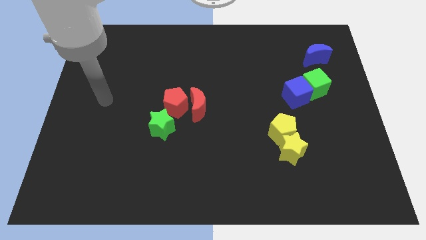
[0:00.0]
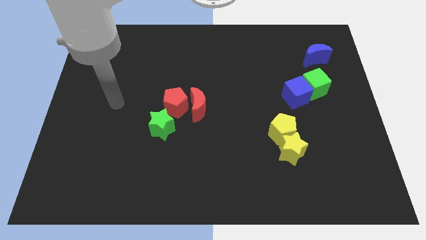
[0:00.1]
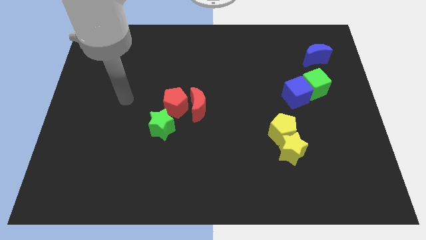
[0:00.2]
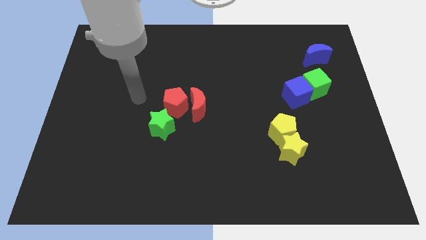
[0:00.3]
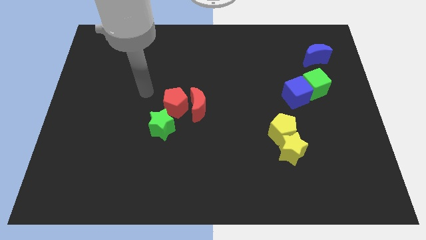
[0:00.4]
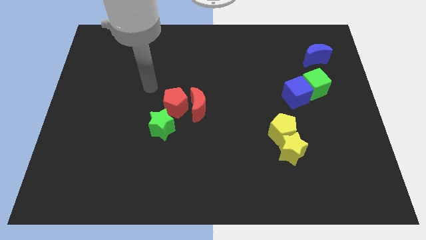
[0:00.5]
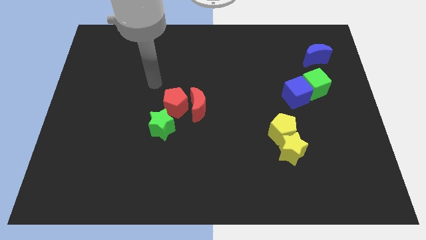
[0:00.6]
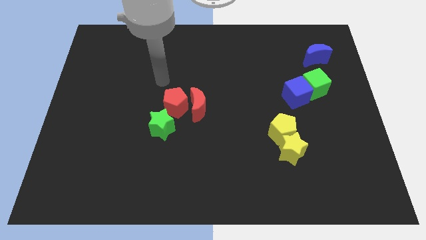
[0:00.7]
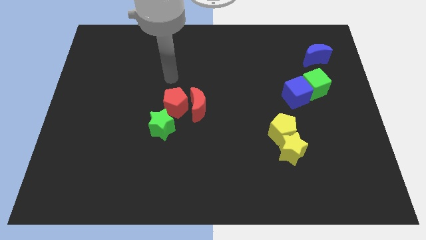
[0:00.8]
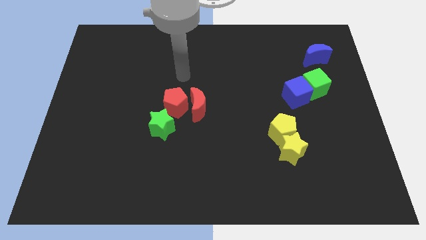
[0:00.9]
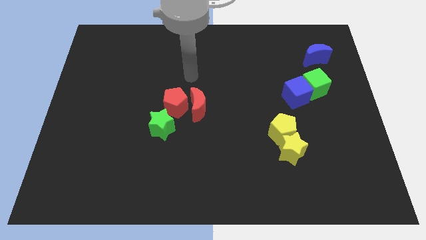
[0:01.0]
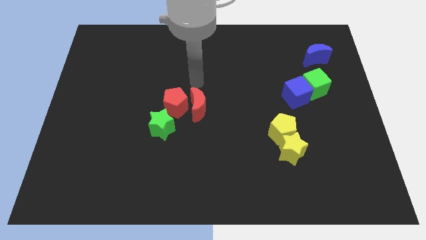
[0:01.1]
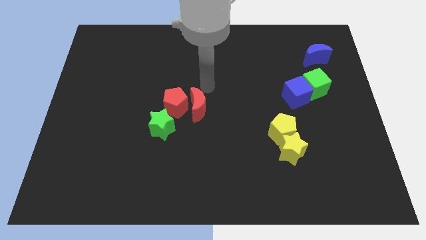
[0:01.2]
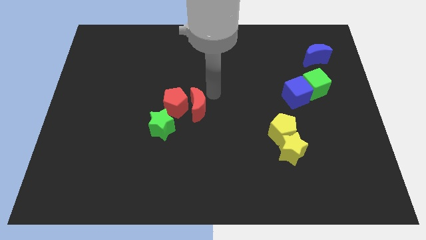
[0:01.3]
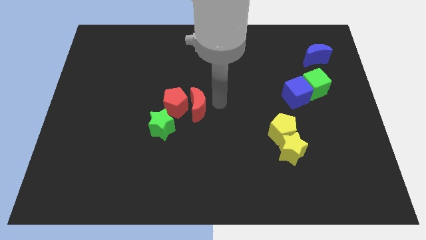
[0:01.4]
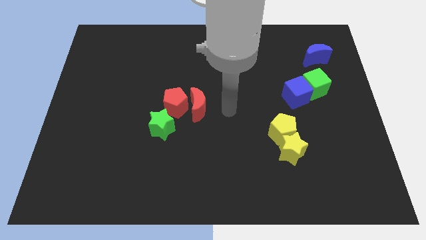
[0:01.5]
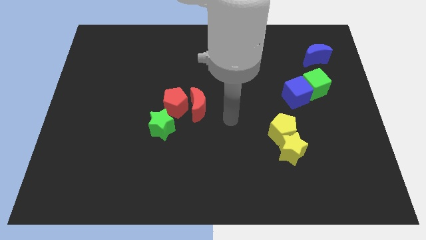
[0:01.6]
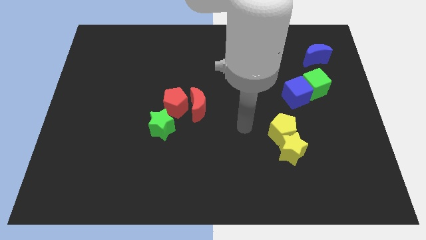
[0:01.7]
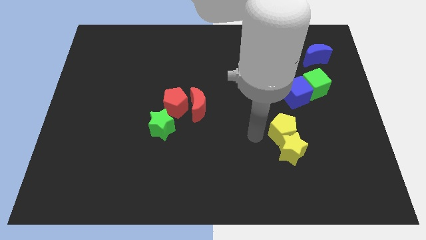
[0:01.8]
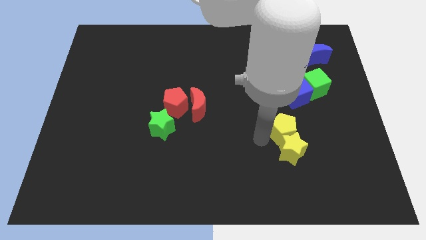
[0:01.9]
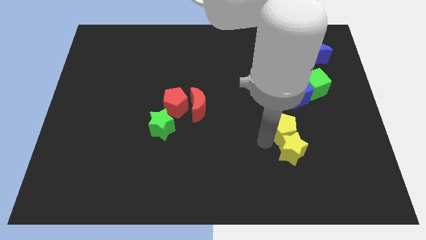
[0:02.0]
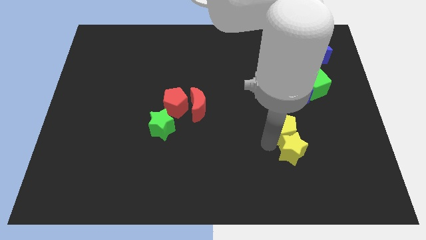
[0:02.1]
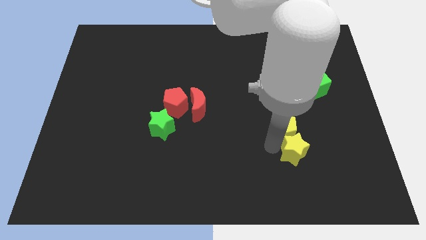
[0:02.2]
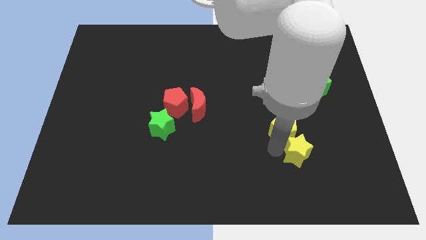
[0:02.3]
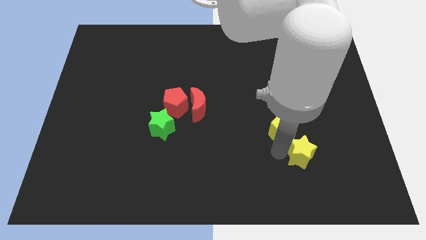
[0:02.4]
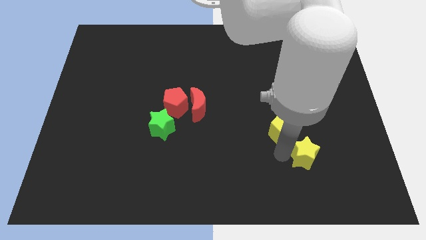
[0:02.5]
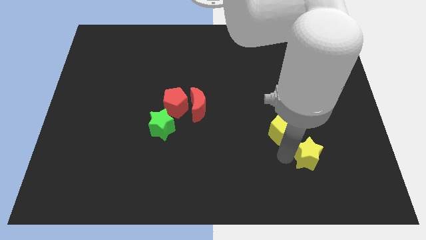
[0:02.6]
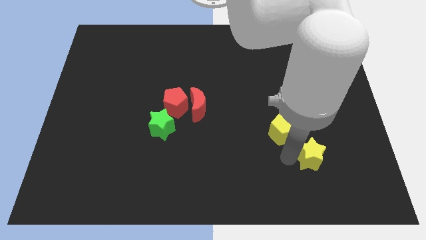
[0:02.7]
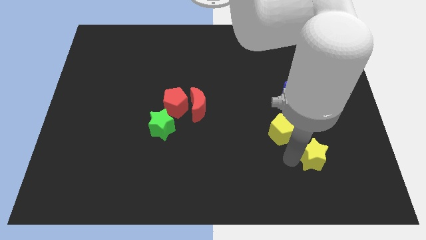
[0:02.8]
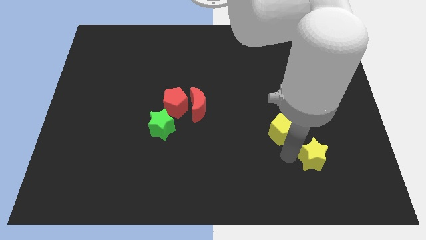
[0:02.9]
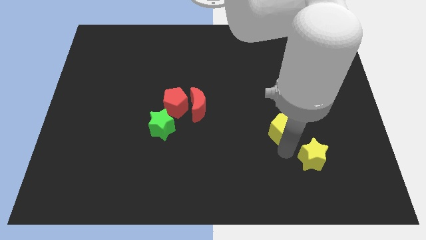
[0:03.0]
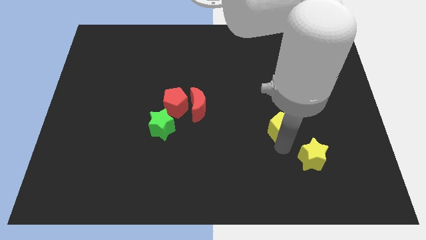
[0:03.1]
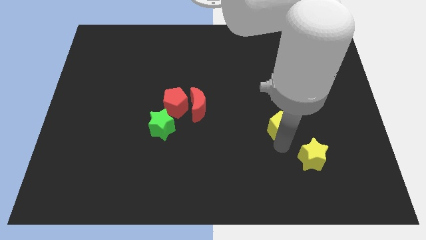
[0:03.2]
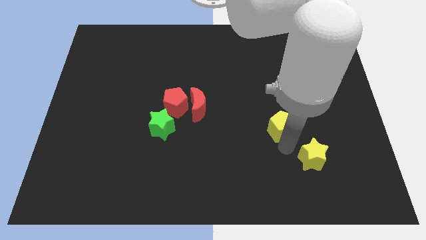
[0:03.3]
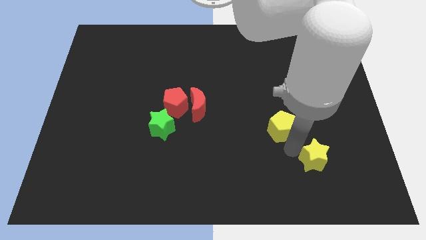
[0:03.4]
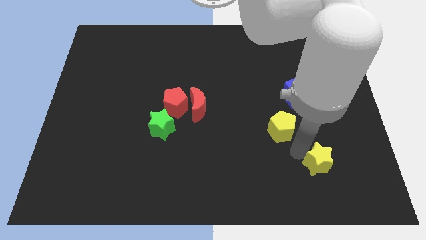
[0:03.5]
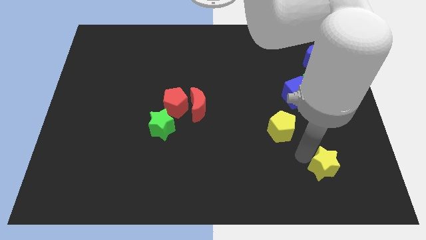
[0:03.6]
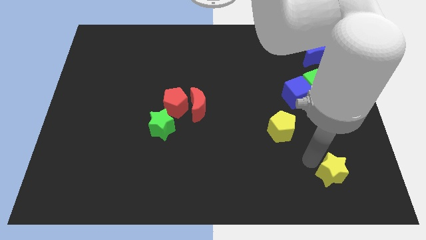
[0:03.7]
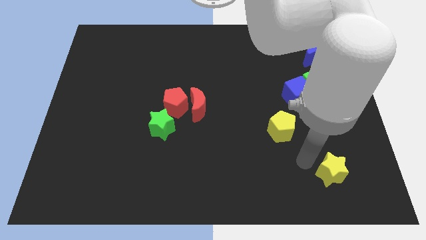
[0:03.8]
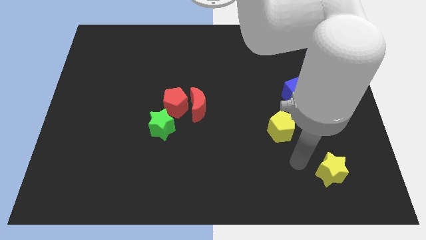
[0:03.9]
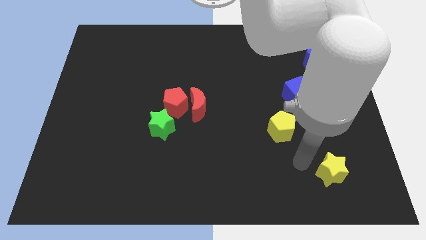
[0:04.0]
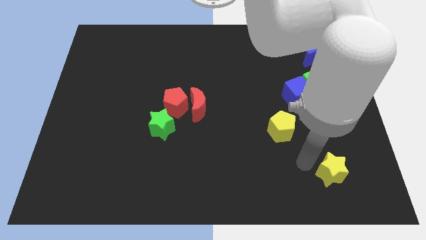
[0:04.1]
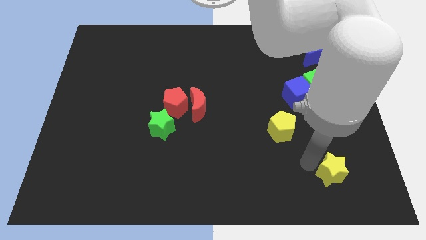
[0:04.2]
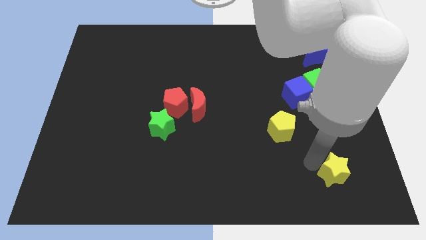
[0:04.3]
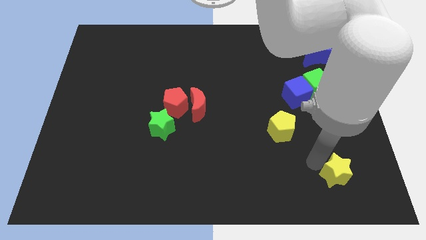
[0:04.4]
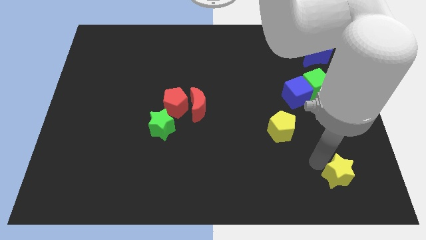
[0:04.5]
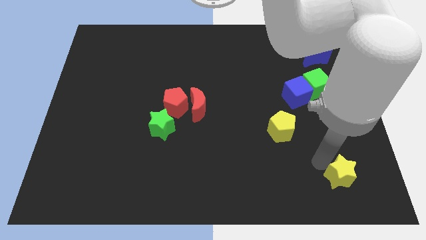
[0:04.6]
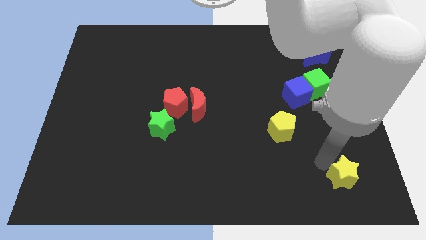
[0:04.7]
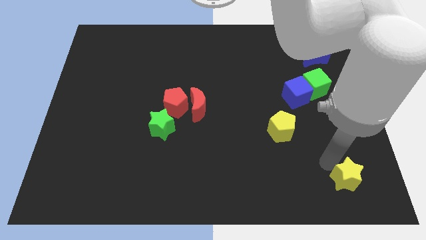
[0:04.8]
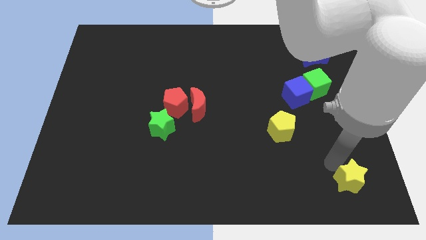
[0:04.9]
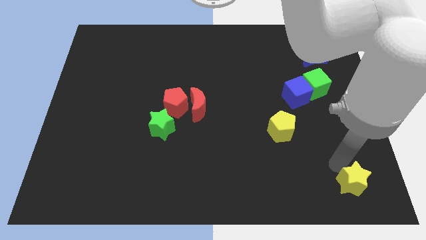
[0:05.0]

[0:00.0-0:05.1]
push the yellow star to the lower right corner

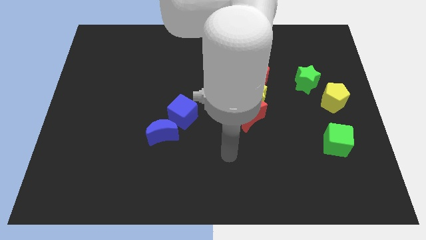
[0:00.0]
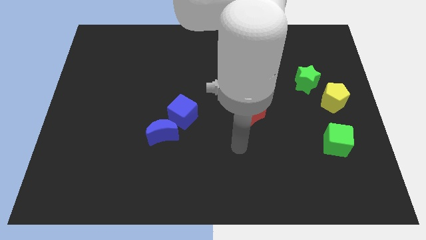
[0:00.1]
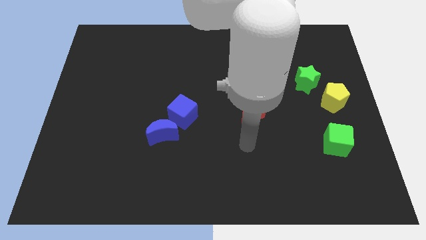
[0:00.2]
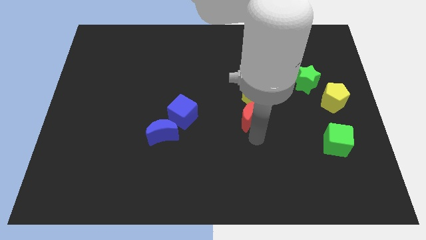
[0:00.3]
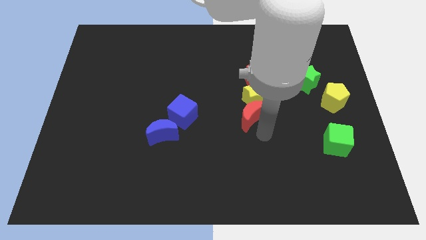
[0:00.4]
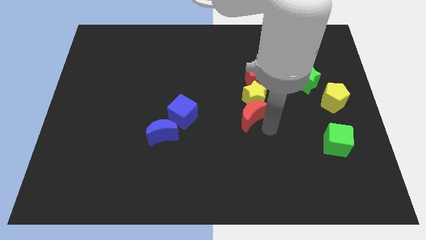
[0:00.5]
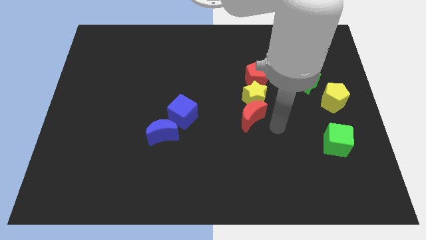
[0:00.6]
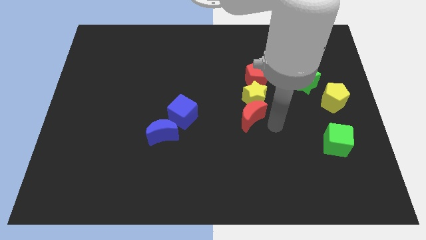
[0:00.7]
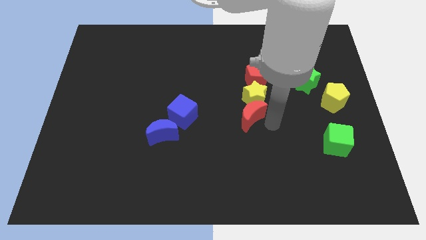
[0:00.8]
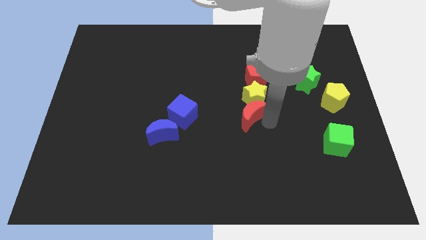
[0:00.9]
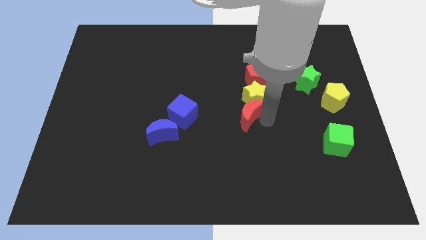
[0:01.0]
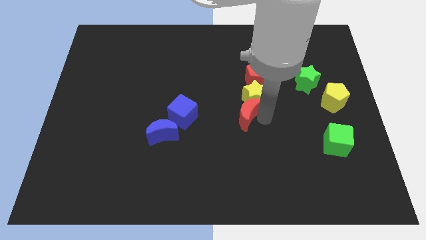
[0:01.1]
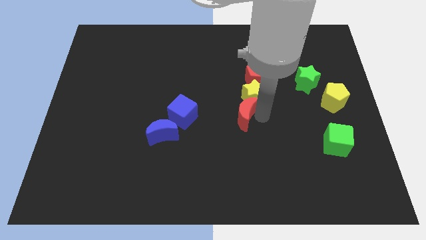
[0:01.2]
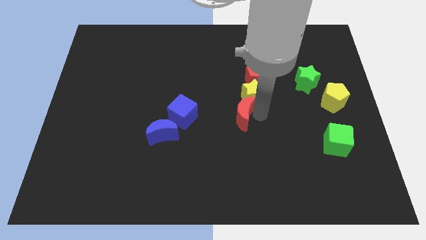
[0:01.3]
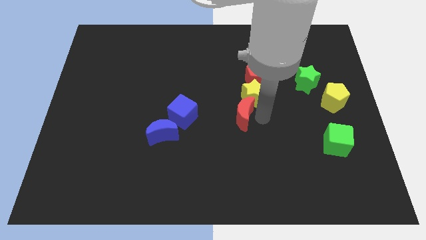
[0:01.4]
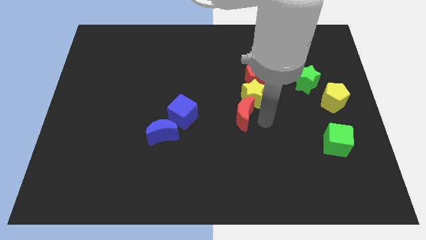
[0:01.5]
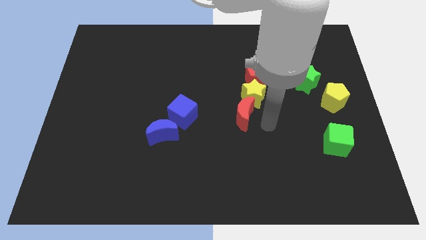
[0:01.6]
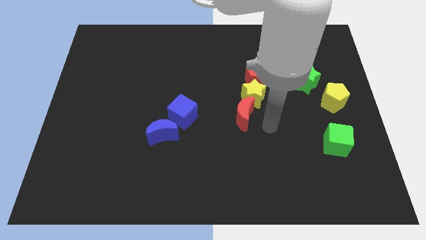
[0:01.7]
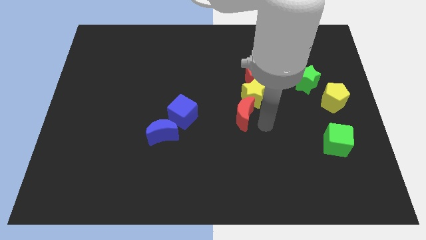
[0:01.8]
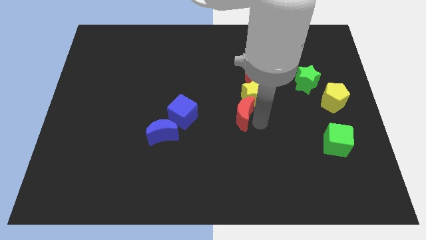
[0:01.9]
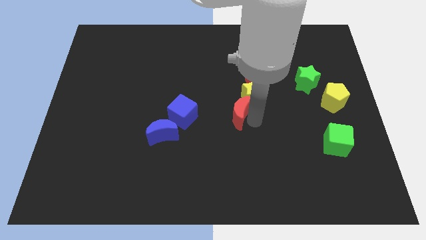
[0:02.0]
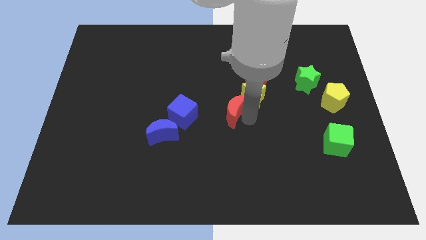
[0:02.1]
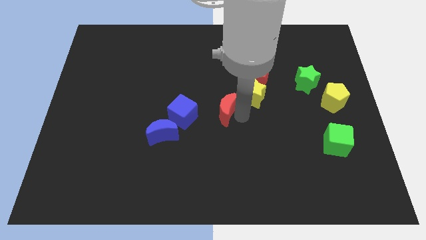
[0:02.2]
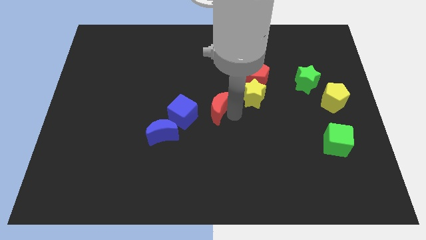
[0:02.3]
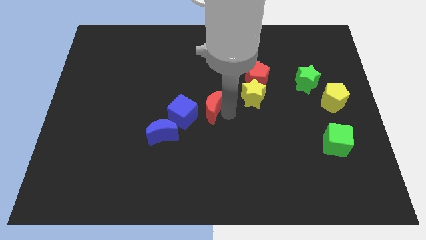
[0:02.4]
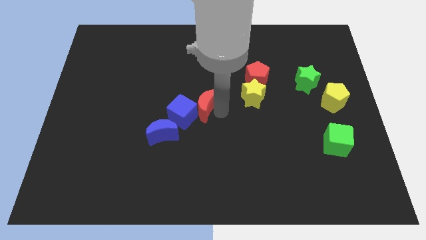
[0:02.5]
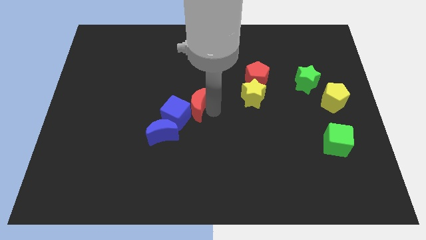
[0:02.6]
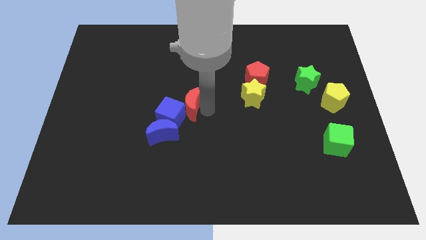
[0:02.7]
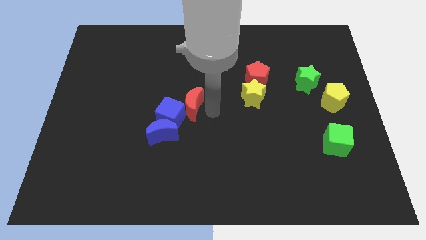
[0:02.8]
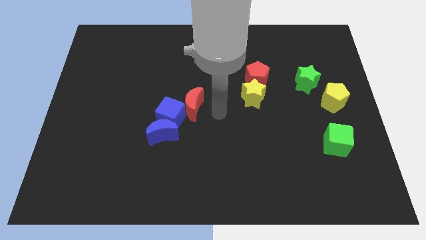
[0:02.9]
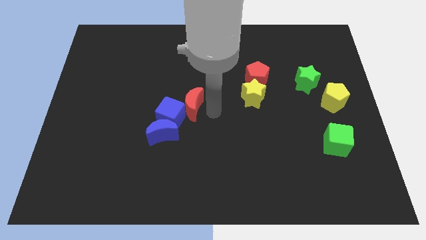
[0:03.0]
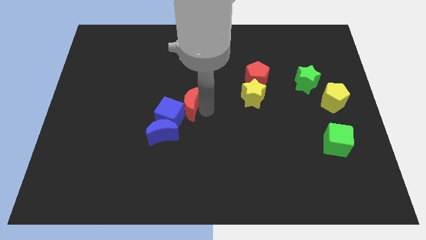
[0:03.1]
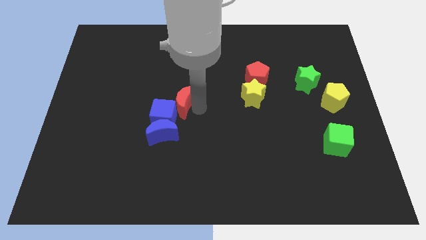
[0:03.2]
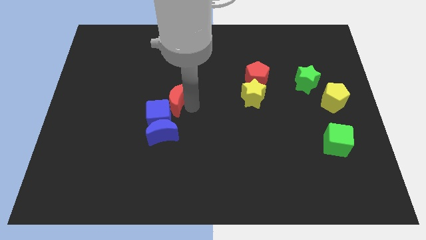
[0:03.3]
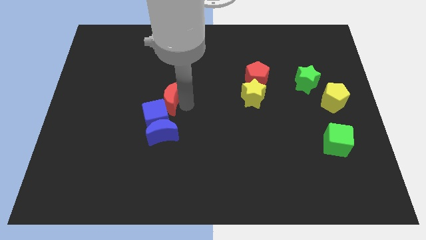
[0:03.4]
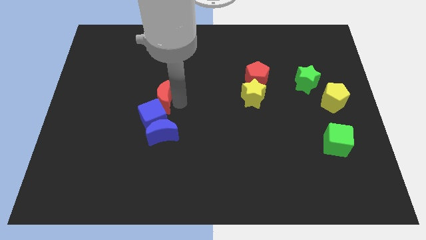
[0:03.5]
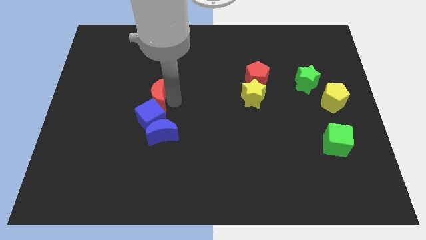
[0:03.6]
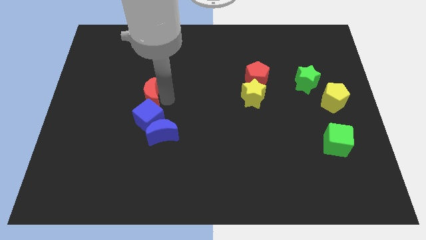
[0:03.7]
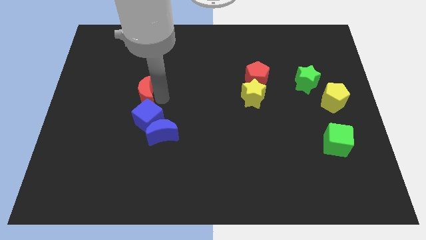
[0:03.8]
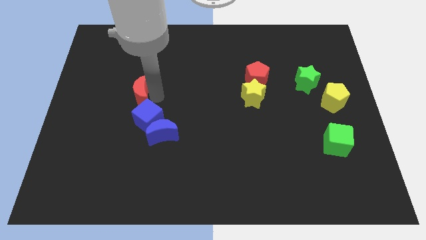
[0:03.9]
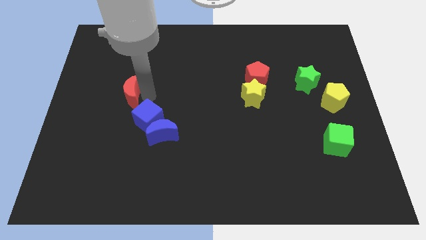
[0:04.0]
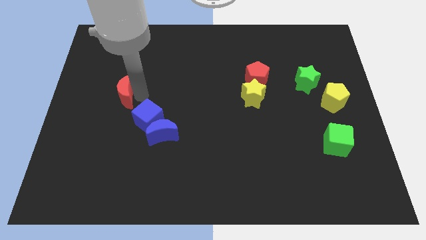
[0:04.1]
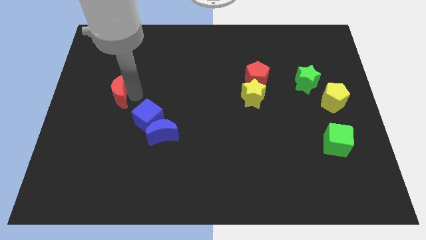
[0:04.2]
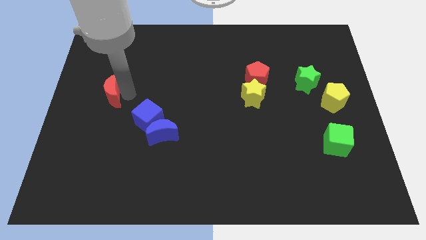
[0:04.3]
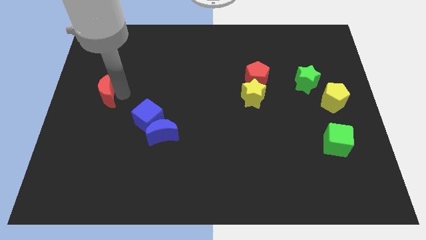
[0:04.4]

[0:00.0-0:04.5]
push the red moon to the center left
